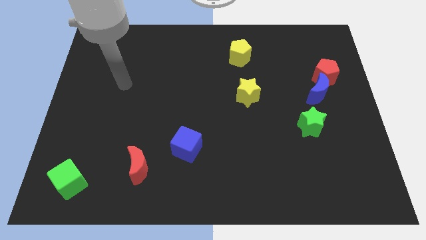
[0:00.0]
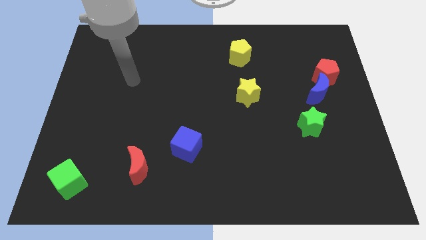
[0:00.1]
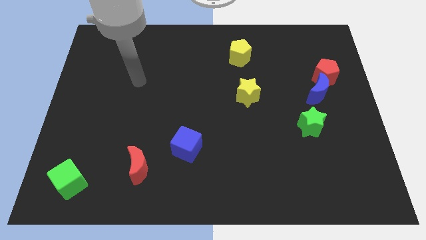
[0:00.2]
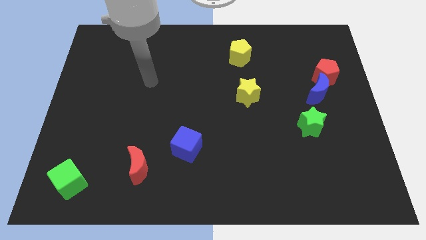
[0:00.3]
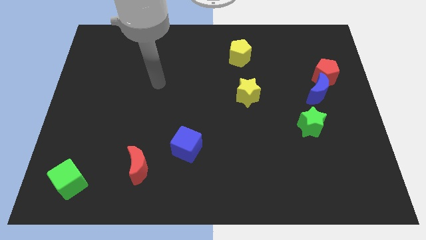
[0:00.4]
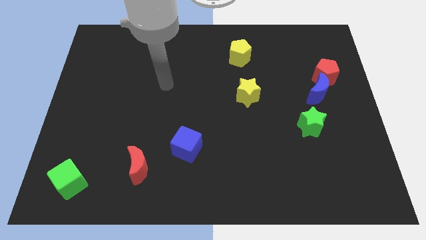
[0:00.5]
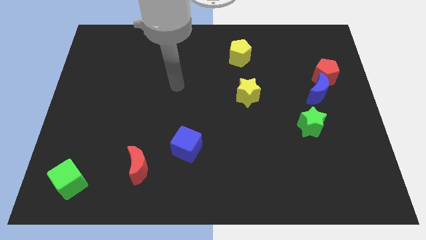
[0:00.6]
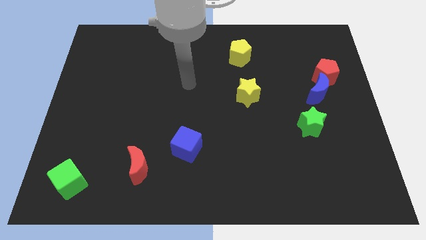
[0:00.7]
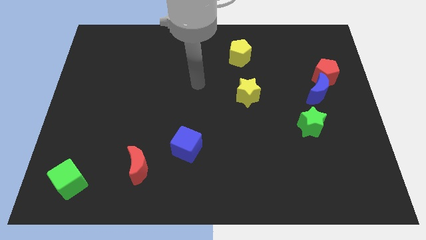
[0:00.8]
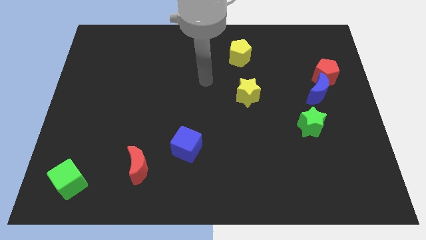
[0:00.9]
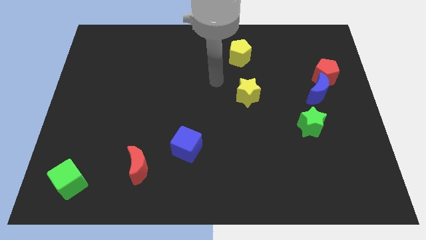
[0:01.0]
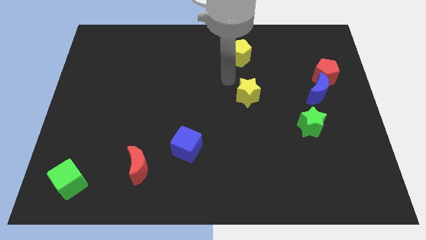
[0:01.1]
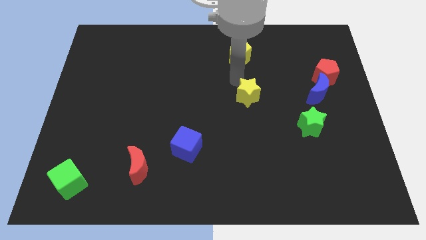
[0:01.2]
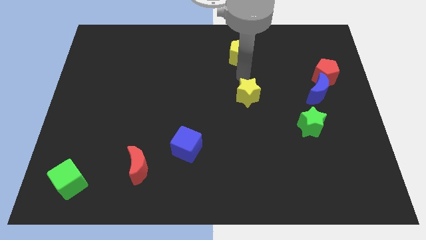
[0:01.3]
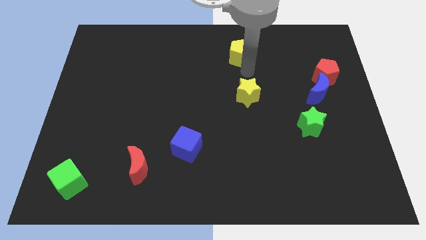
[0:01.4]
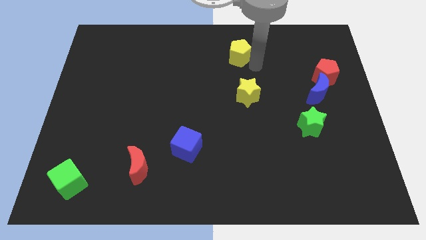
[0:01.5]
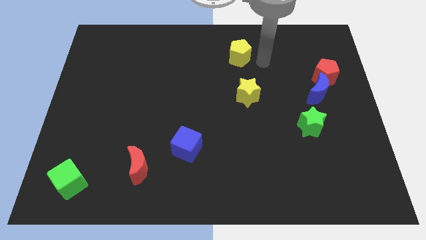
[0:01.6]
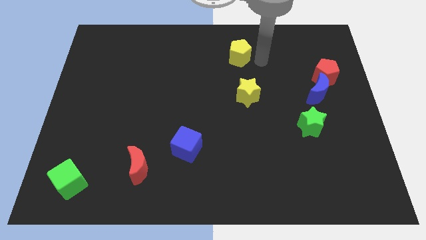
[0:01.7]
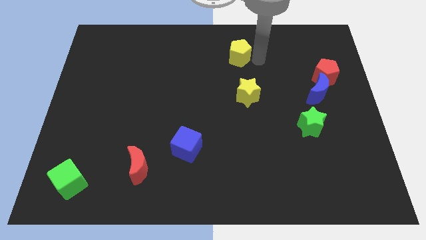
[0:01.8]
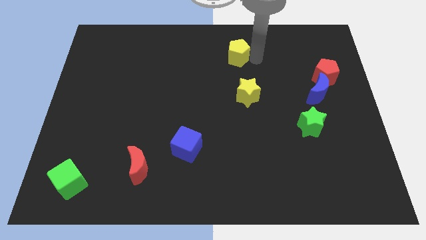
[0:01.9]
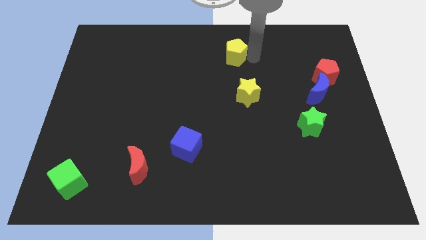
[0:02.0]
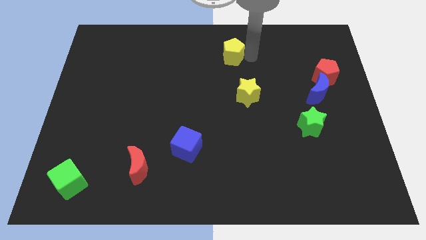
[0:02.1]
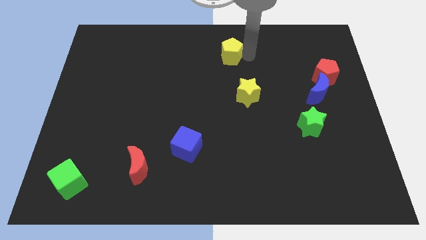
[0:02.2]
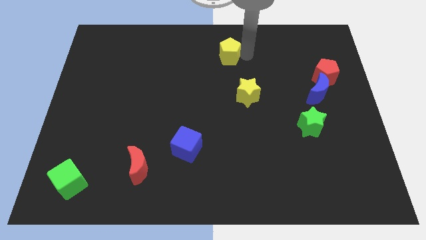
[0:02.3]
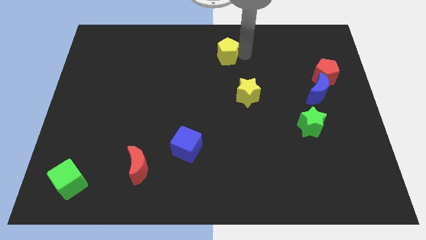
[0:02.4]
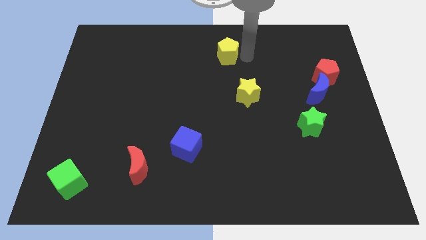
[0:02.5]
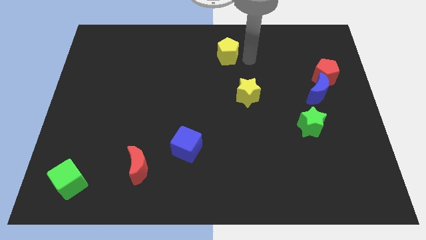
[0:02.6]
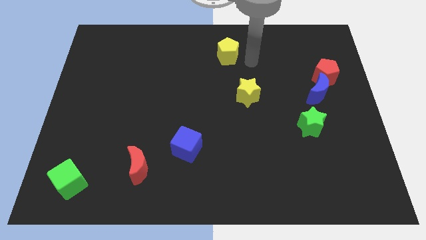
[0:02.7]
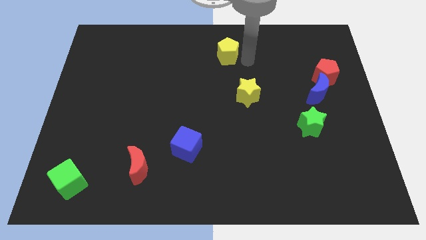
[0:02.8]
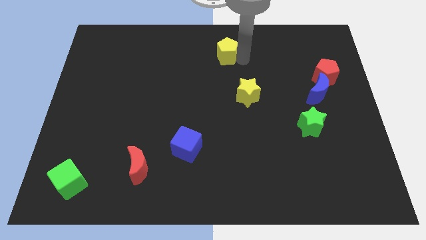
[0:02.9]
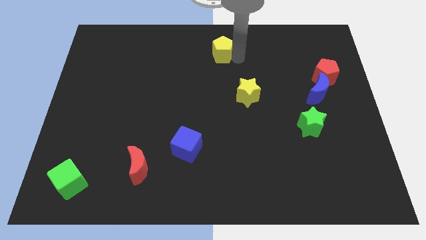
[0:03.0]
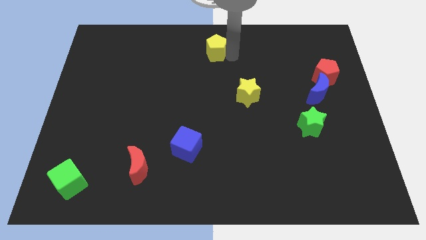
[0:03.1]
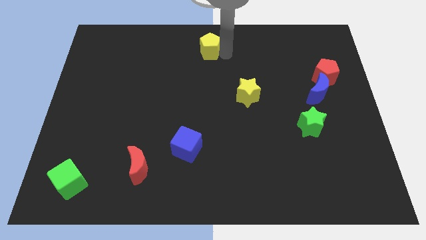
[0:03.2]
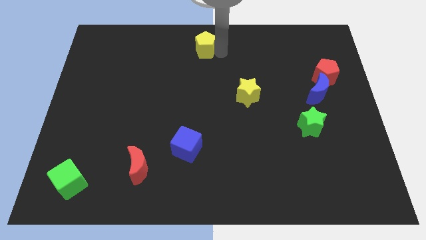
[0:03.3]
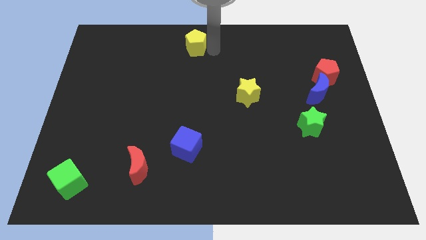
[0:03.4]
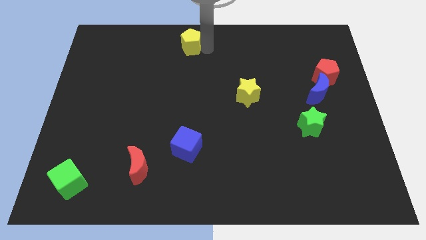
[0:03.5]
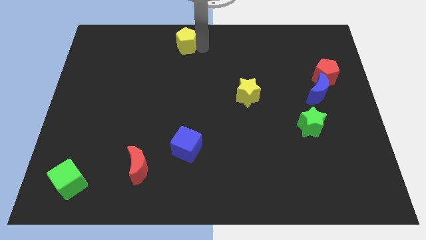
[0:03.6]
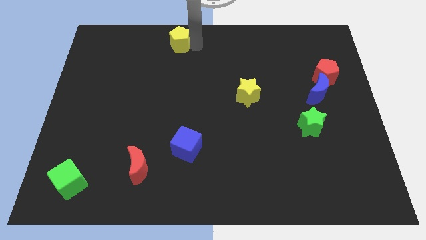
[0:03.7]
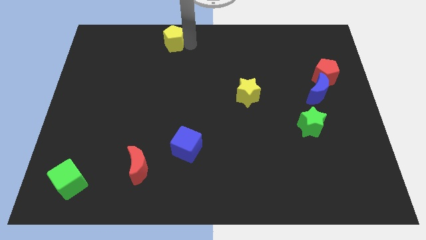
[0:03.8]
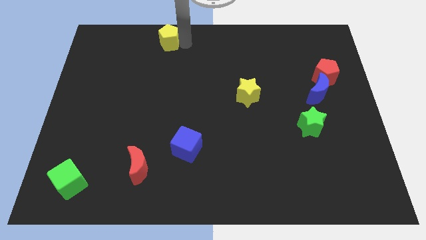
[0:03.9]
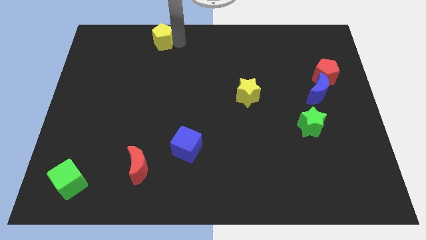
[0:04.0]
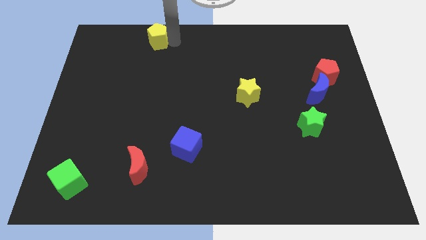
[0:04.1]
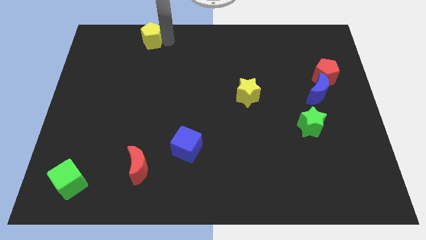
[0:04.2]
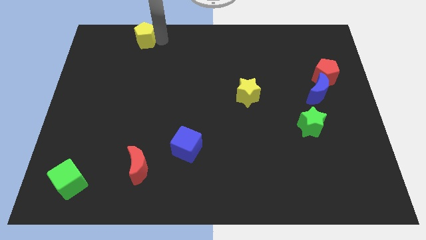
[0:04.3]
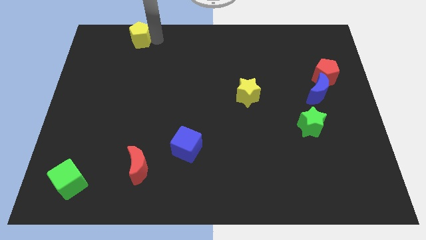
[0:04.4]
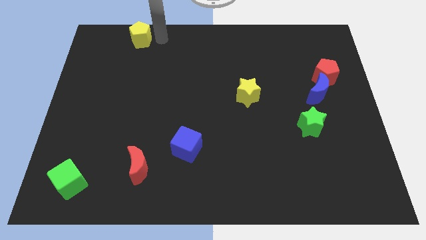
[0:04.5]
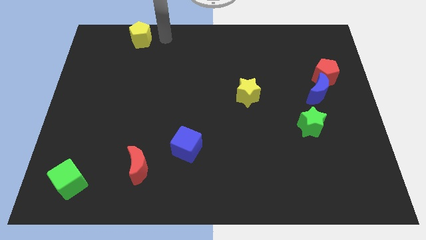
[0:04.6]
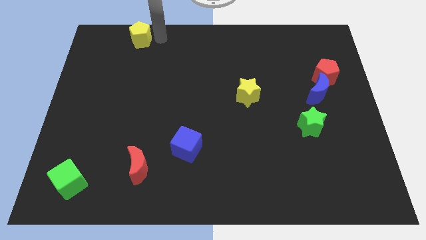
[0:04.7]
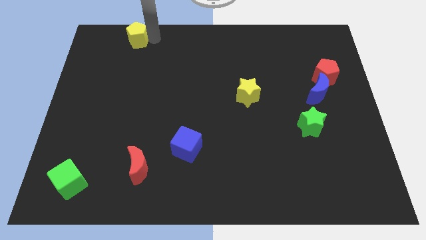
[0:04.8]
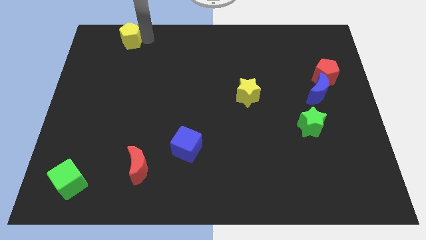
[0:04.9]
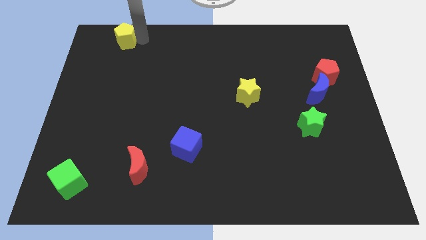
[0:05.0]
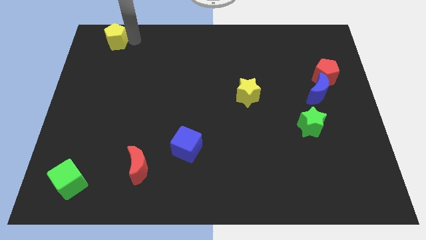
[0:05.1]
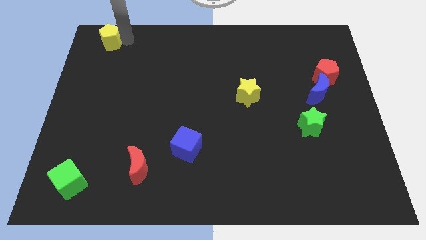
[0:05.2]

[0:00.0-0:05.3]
slide the yellow pentagon to the top left corner

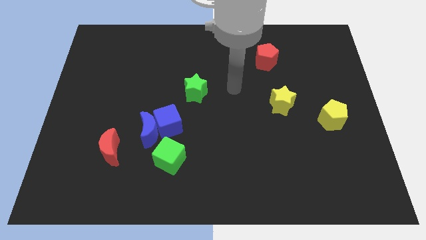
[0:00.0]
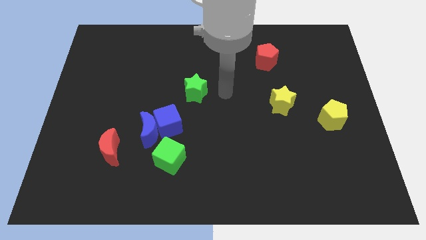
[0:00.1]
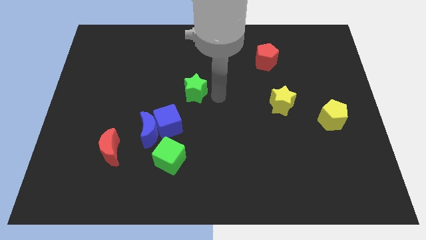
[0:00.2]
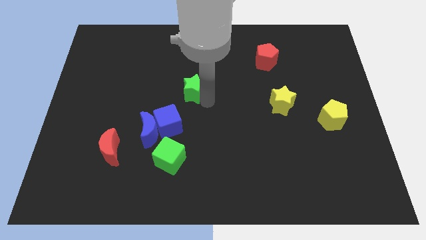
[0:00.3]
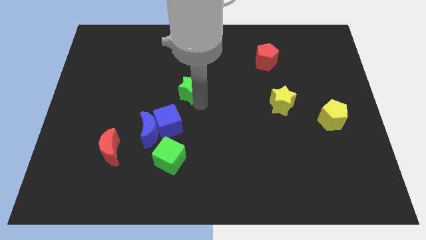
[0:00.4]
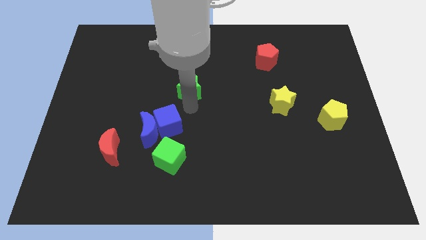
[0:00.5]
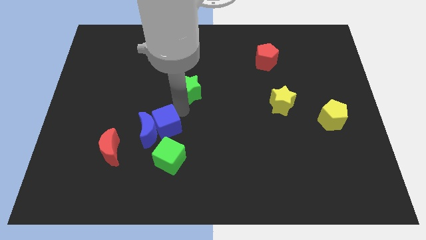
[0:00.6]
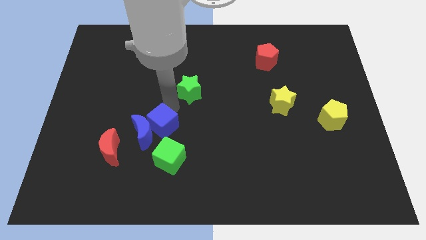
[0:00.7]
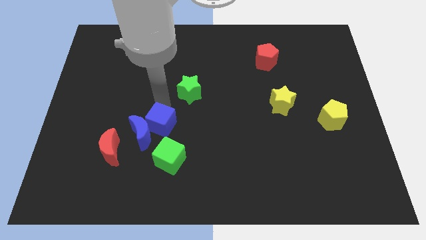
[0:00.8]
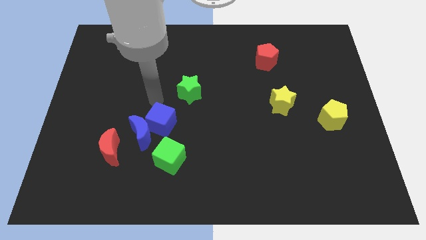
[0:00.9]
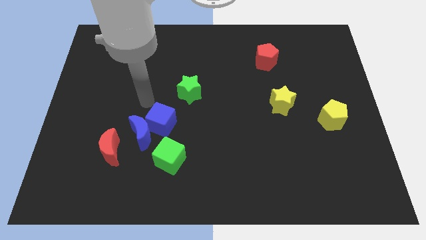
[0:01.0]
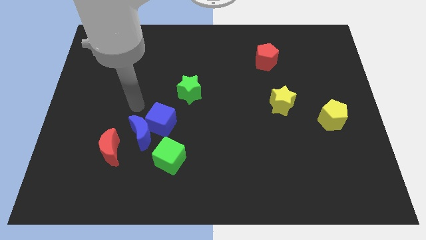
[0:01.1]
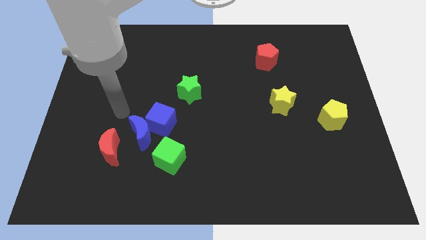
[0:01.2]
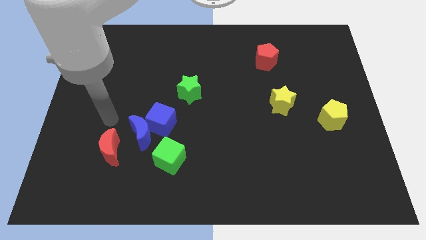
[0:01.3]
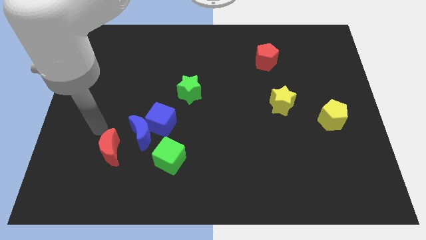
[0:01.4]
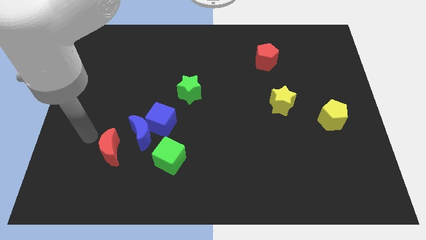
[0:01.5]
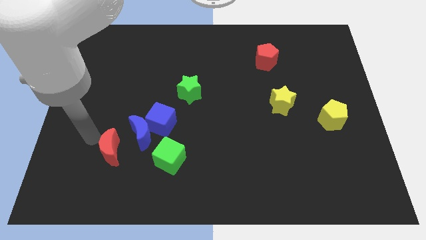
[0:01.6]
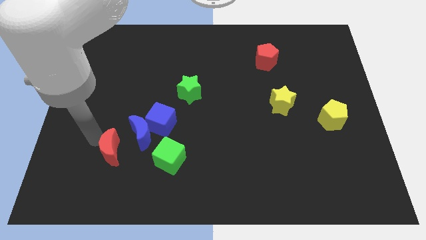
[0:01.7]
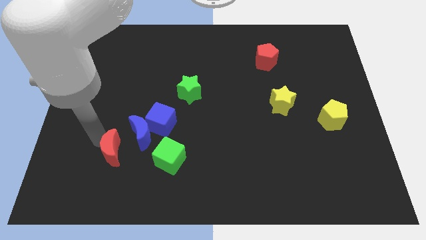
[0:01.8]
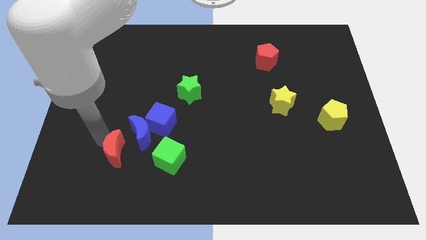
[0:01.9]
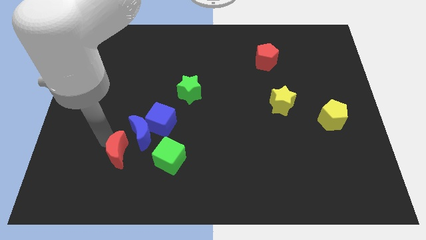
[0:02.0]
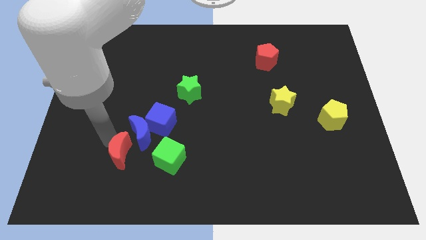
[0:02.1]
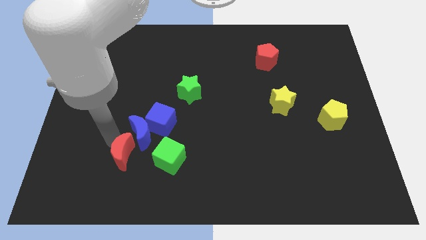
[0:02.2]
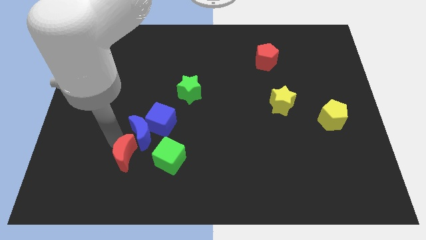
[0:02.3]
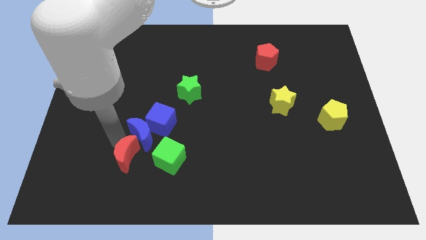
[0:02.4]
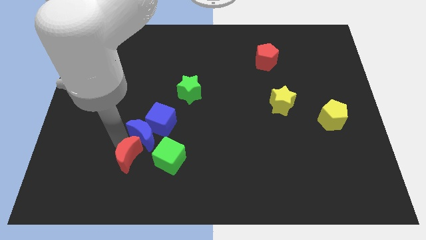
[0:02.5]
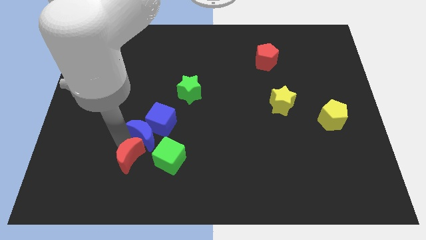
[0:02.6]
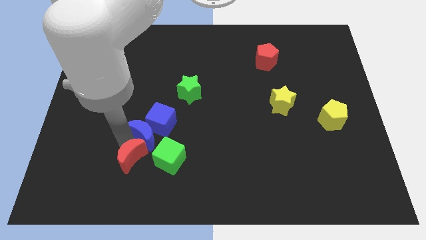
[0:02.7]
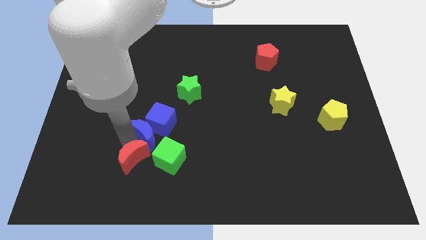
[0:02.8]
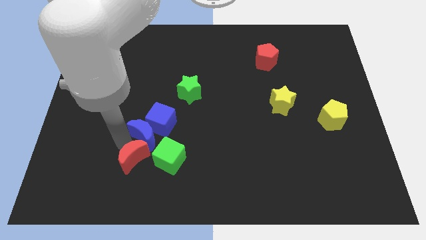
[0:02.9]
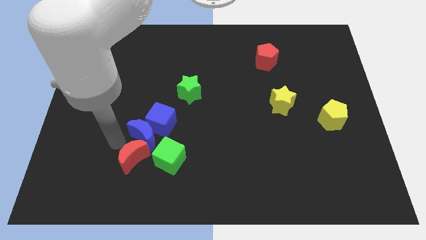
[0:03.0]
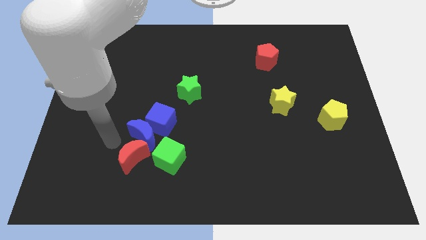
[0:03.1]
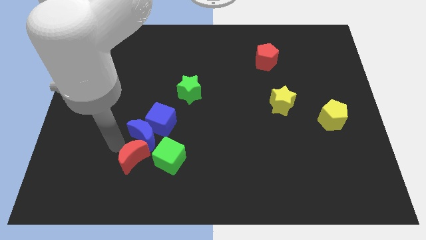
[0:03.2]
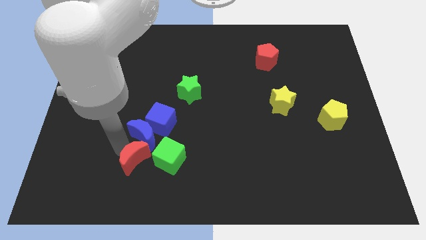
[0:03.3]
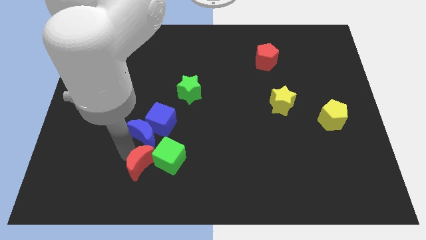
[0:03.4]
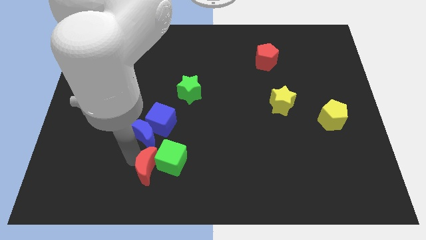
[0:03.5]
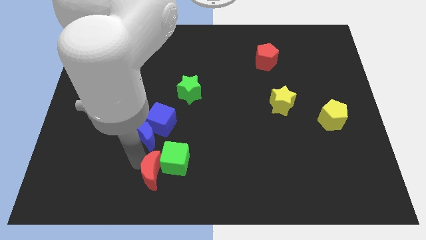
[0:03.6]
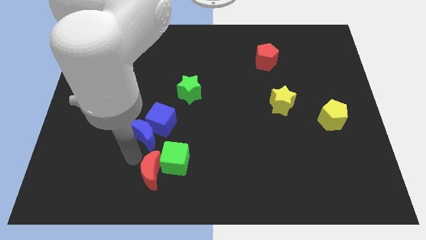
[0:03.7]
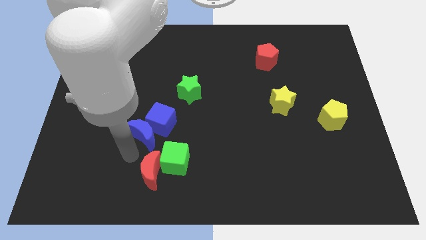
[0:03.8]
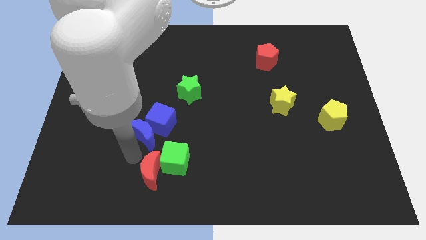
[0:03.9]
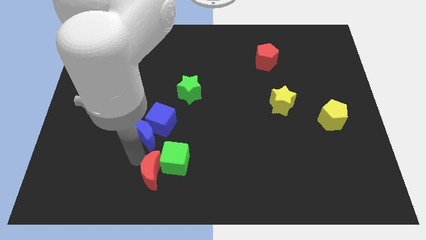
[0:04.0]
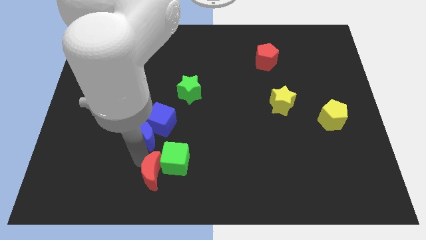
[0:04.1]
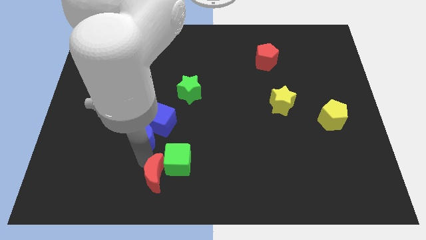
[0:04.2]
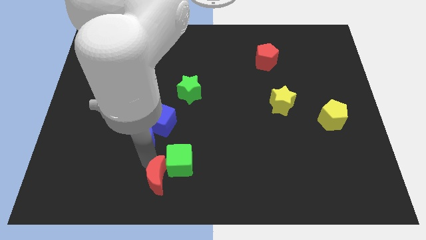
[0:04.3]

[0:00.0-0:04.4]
slide the red moon to the bottom side
